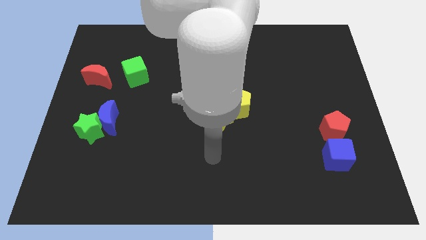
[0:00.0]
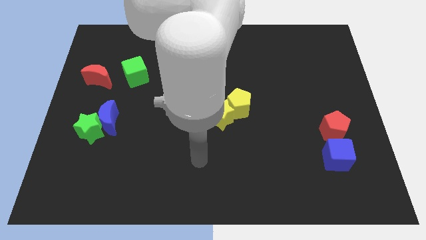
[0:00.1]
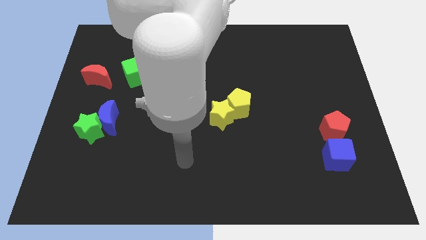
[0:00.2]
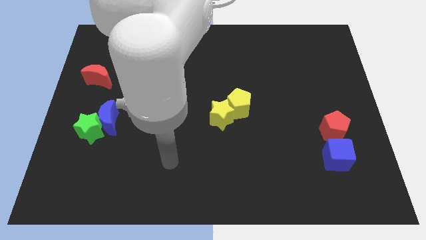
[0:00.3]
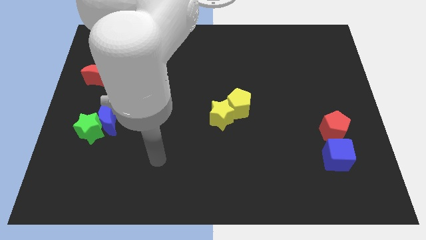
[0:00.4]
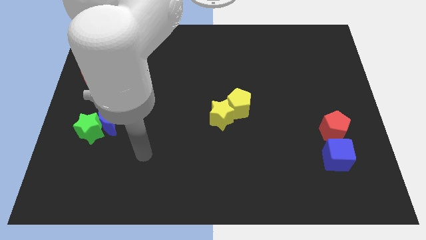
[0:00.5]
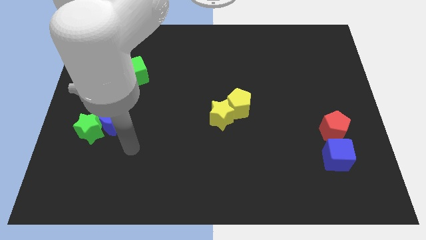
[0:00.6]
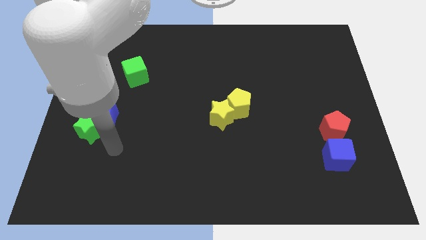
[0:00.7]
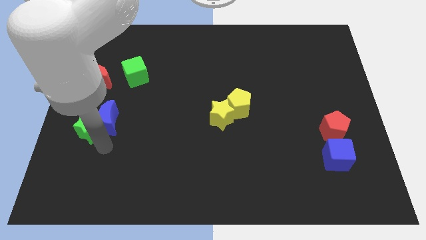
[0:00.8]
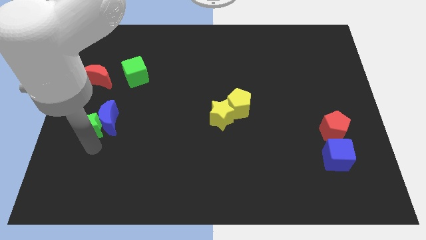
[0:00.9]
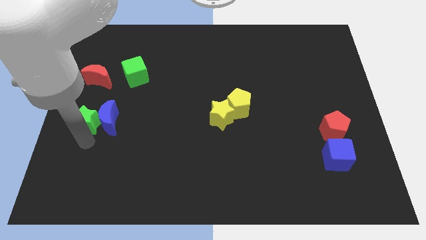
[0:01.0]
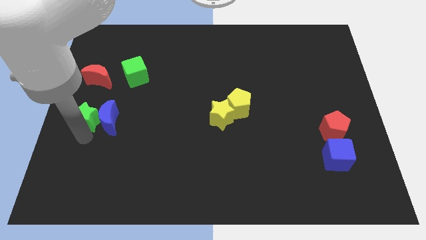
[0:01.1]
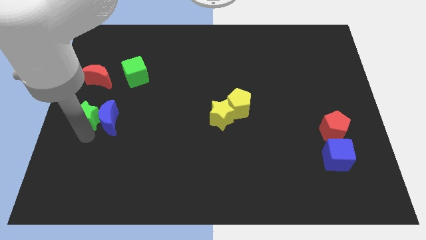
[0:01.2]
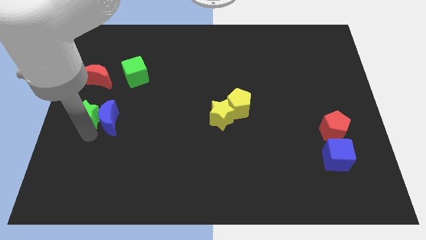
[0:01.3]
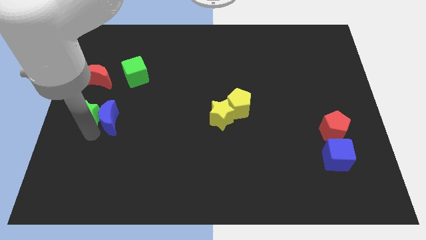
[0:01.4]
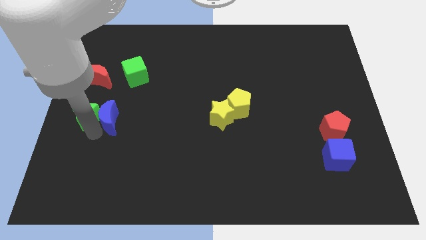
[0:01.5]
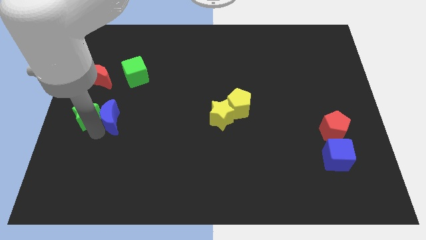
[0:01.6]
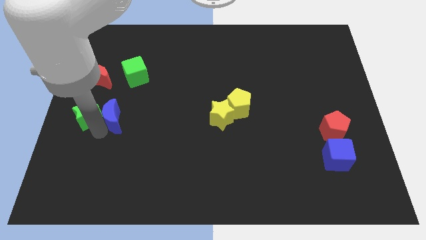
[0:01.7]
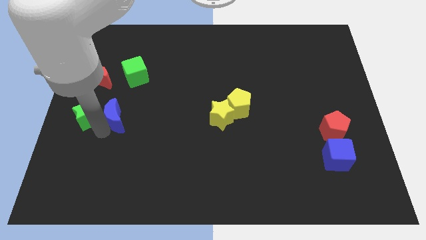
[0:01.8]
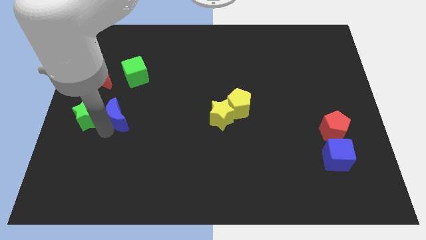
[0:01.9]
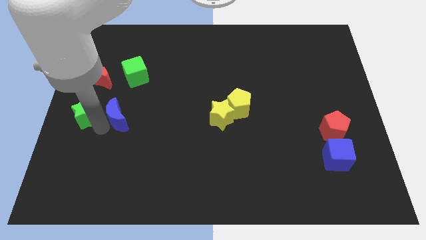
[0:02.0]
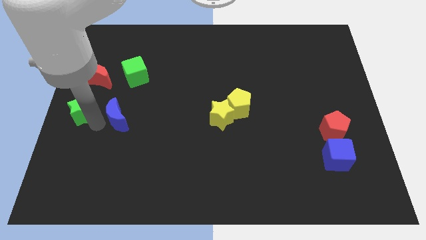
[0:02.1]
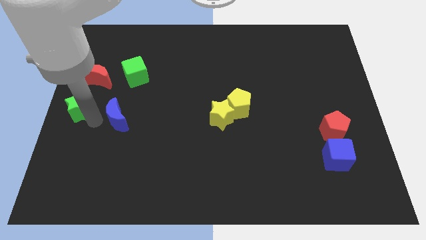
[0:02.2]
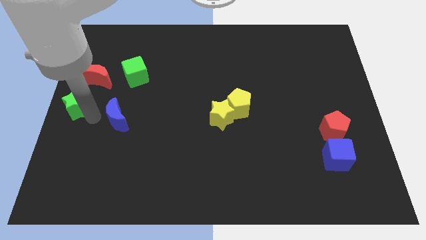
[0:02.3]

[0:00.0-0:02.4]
separate the blue moon from the green star

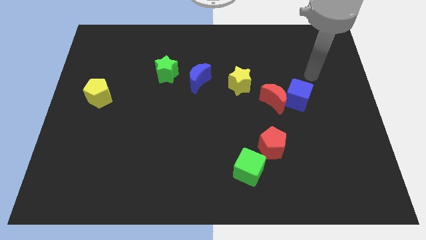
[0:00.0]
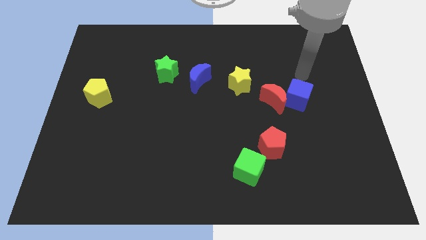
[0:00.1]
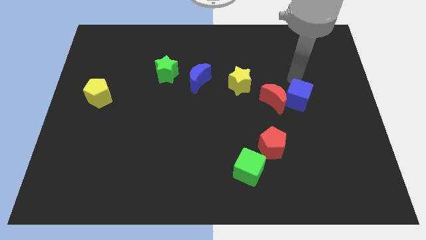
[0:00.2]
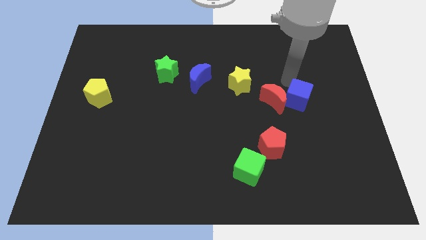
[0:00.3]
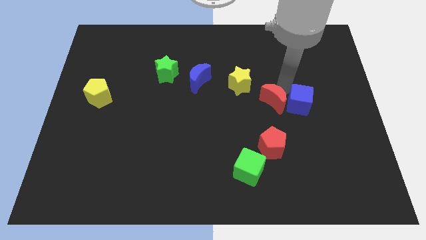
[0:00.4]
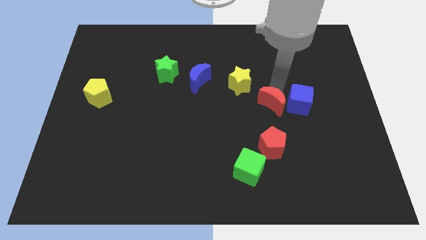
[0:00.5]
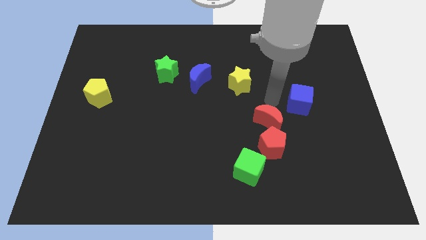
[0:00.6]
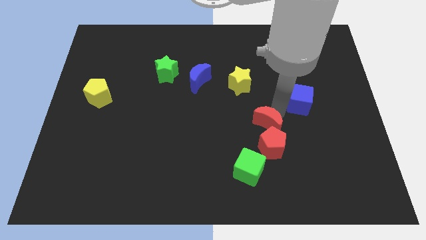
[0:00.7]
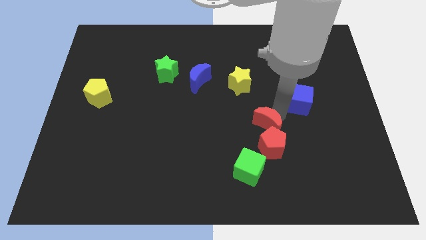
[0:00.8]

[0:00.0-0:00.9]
pull the blue cube apart from the red moon

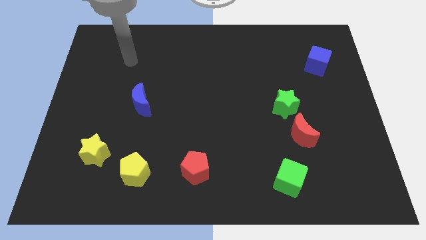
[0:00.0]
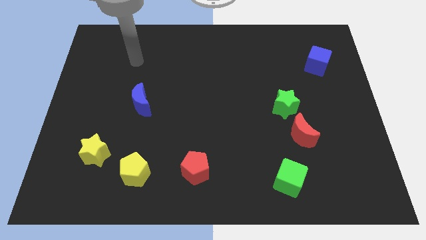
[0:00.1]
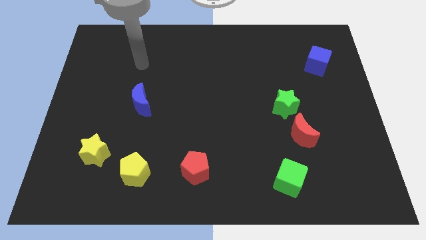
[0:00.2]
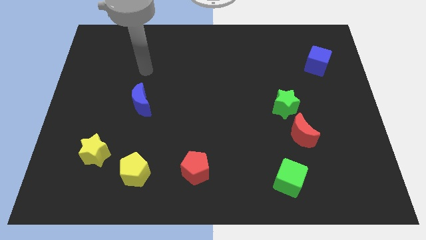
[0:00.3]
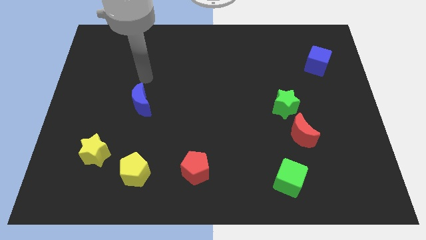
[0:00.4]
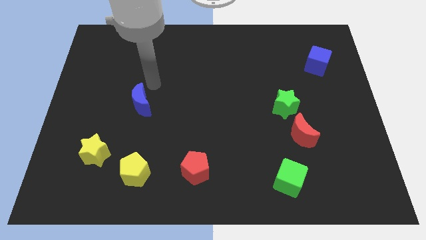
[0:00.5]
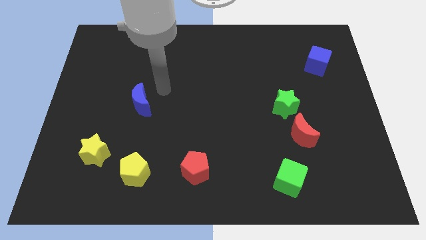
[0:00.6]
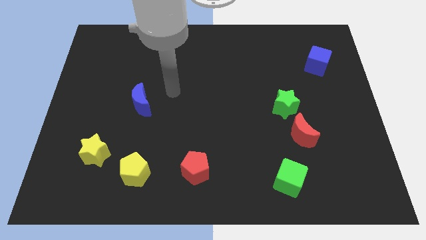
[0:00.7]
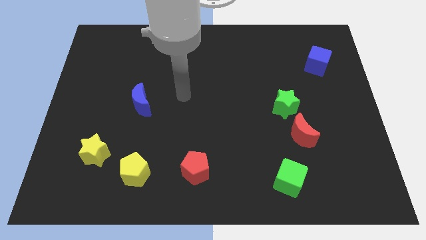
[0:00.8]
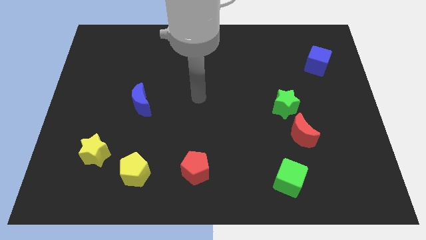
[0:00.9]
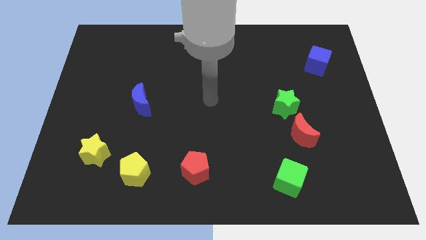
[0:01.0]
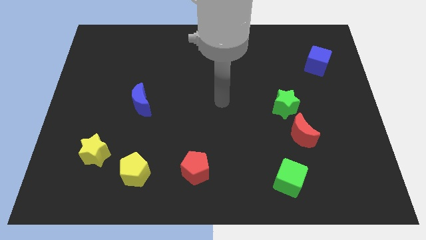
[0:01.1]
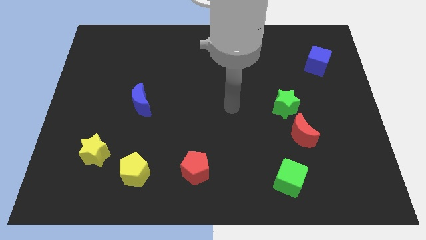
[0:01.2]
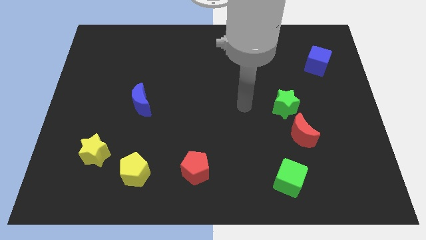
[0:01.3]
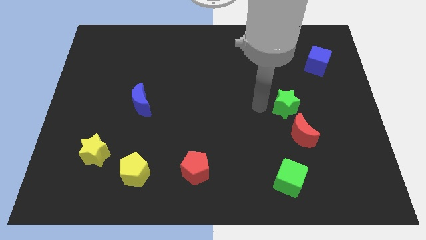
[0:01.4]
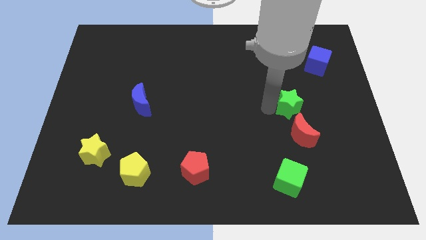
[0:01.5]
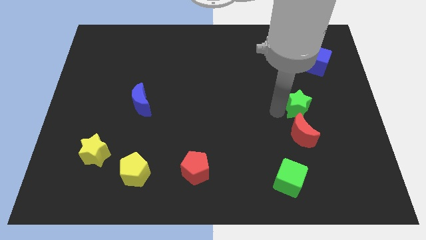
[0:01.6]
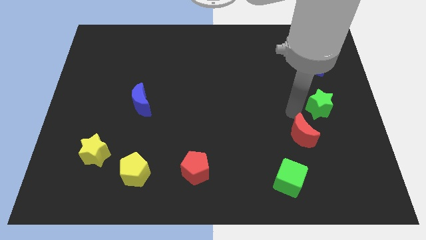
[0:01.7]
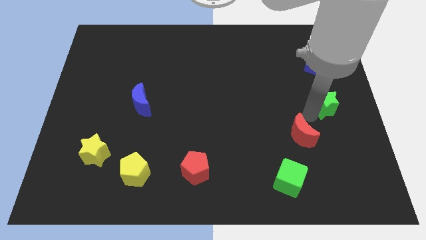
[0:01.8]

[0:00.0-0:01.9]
pull the red moon apart from the green star

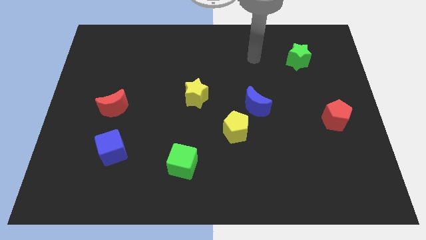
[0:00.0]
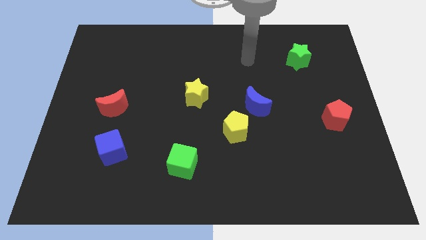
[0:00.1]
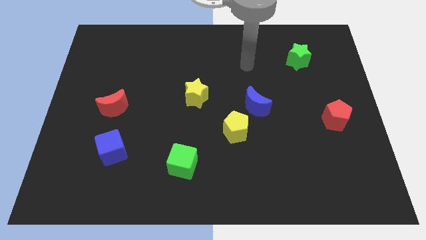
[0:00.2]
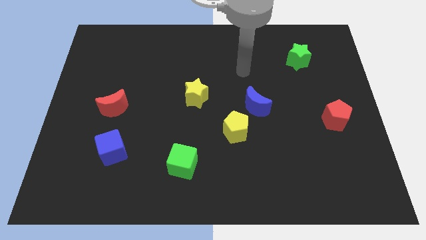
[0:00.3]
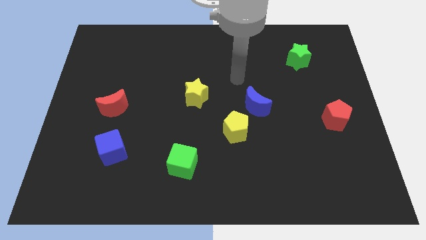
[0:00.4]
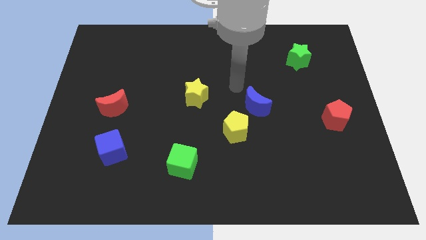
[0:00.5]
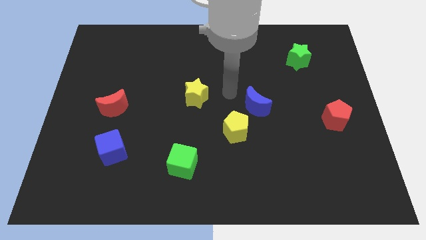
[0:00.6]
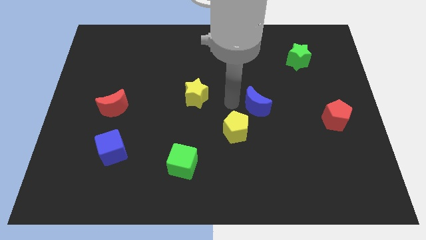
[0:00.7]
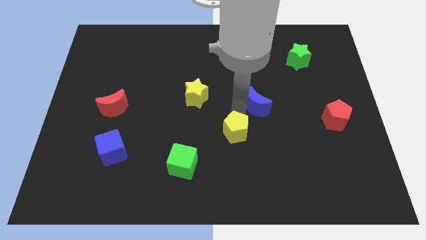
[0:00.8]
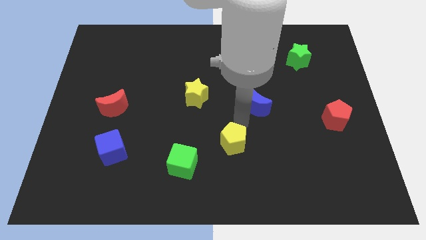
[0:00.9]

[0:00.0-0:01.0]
pull the blue moon apart from the yellow pentagon

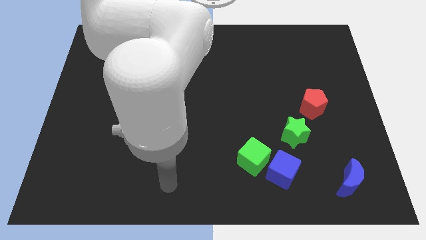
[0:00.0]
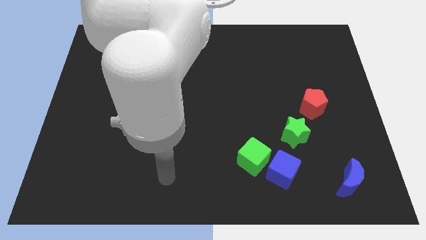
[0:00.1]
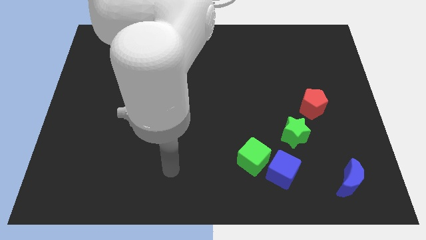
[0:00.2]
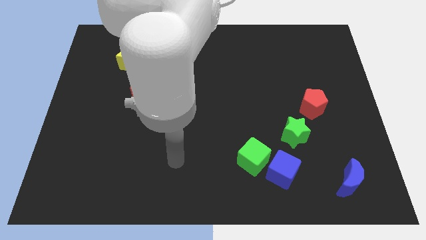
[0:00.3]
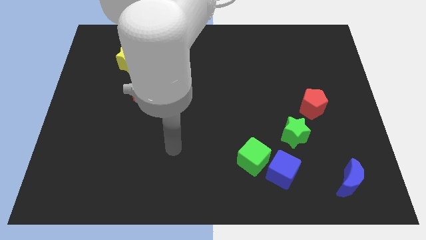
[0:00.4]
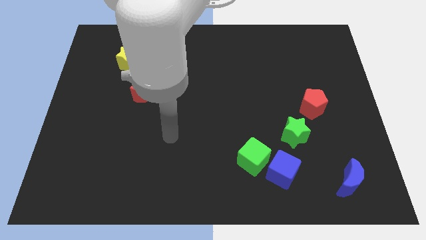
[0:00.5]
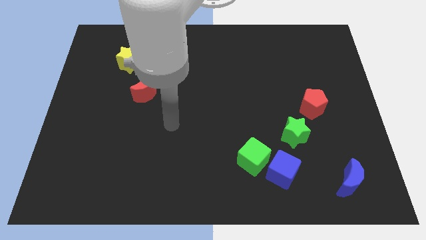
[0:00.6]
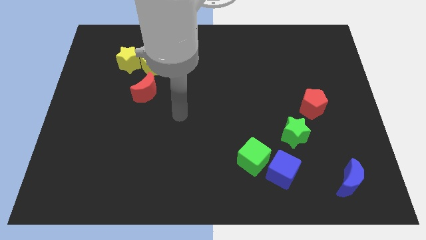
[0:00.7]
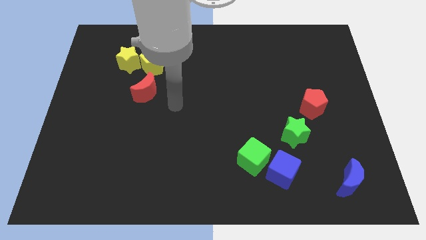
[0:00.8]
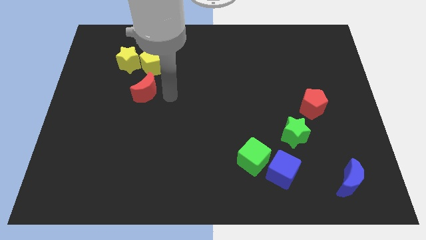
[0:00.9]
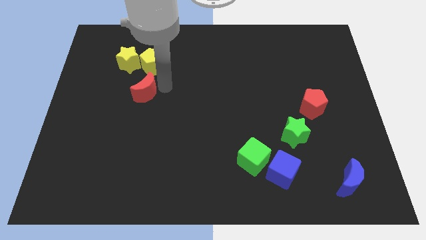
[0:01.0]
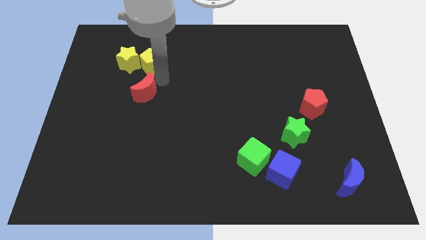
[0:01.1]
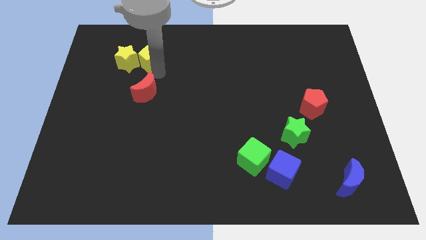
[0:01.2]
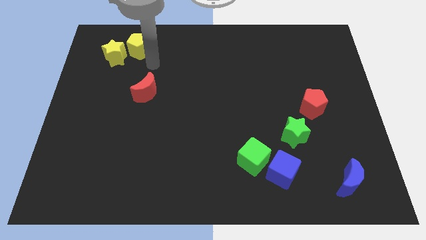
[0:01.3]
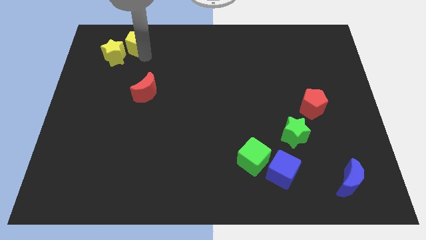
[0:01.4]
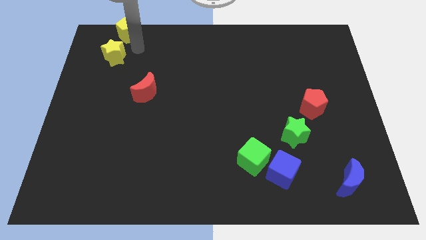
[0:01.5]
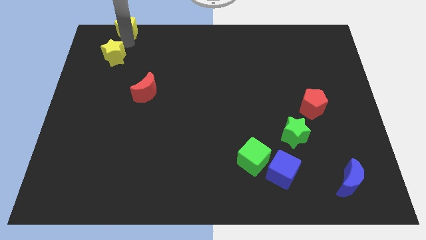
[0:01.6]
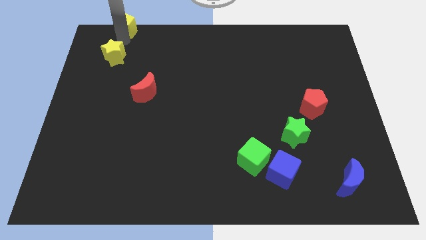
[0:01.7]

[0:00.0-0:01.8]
separate the yellow star from the yellow pentagon

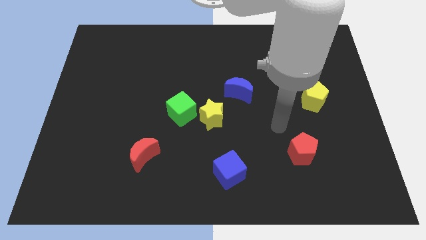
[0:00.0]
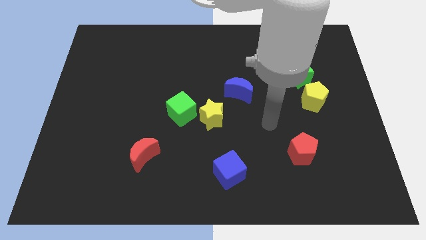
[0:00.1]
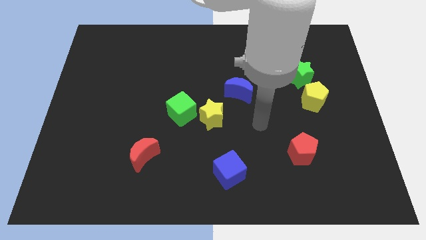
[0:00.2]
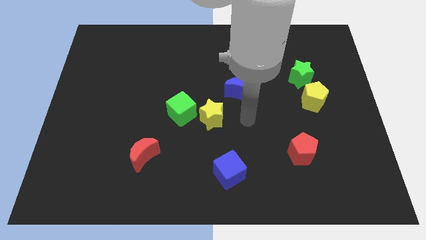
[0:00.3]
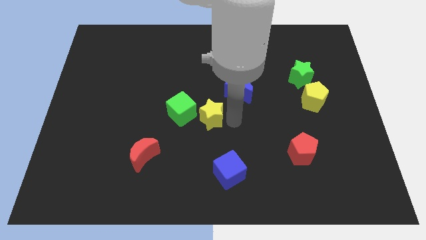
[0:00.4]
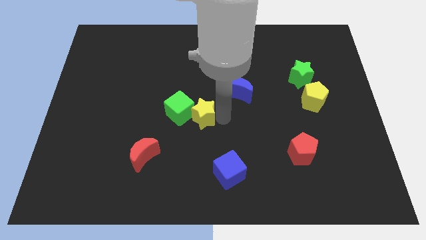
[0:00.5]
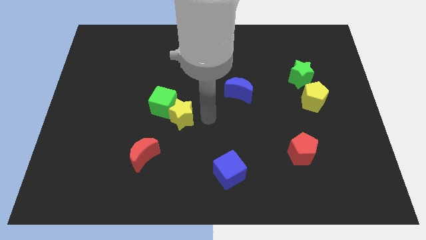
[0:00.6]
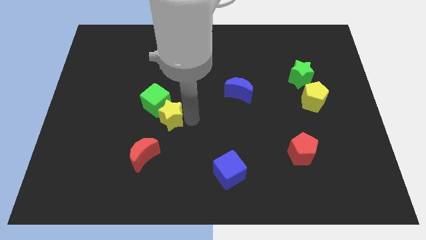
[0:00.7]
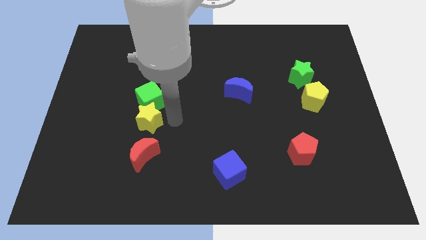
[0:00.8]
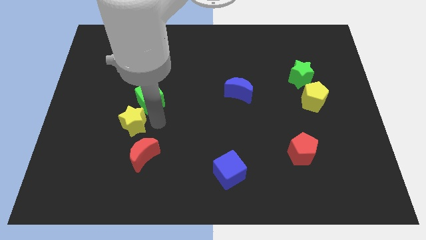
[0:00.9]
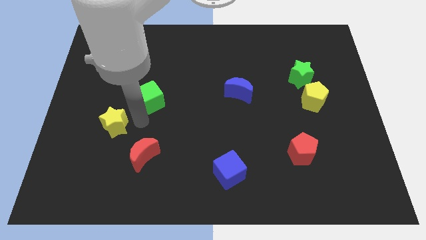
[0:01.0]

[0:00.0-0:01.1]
move the green cube away from the yellow star

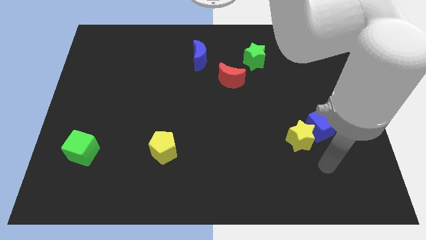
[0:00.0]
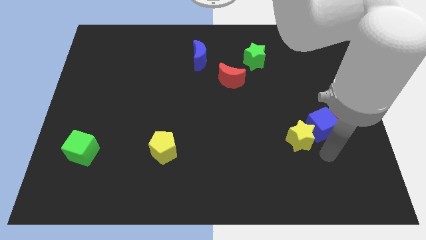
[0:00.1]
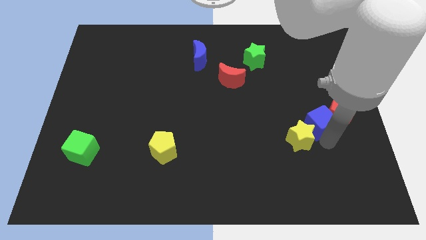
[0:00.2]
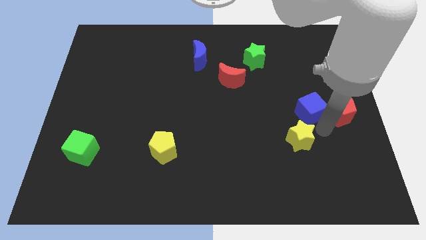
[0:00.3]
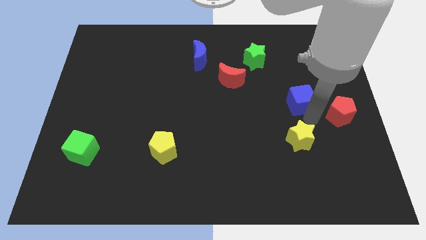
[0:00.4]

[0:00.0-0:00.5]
pull the yellow star apart from the blue cube
